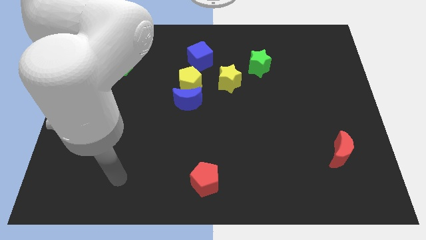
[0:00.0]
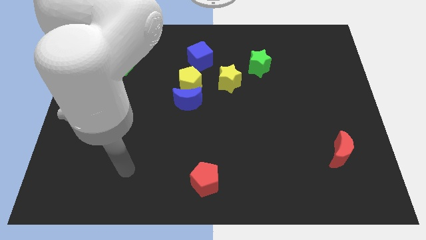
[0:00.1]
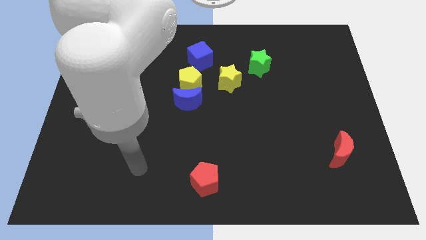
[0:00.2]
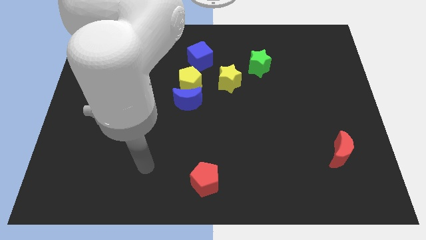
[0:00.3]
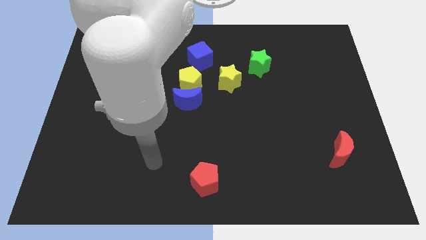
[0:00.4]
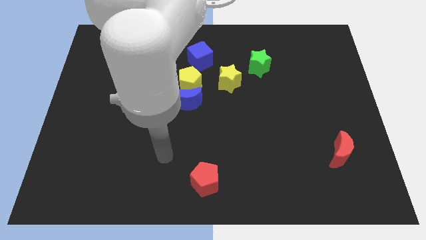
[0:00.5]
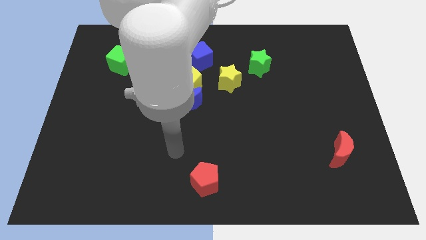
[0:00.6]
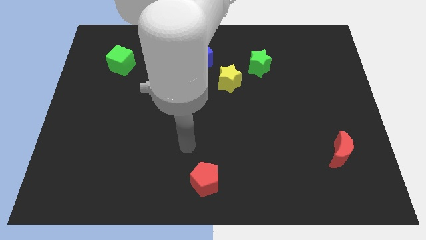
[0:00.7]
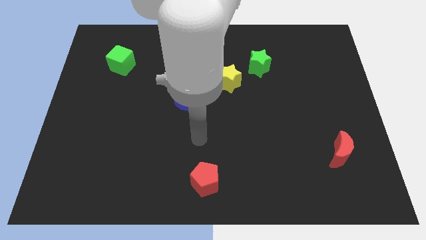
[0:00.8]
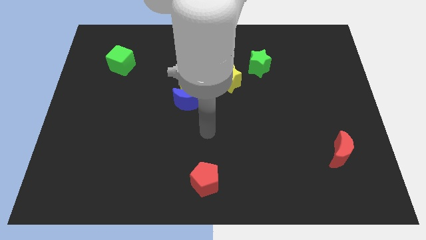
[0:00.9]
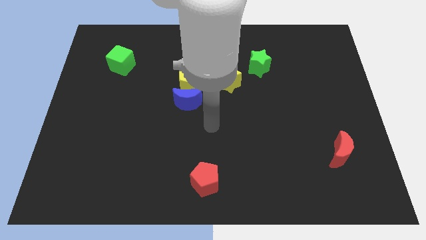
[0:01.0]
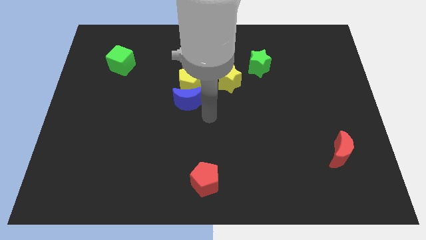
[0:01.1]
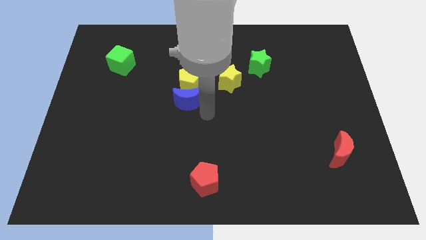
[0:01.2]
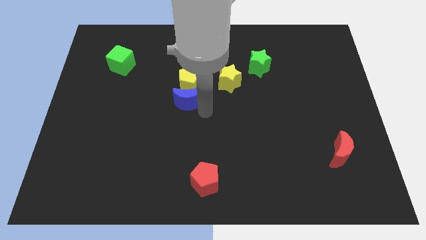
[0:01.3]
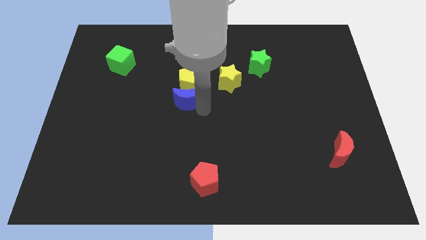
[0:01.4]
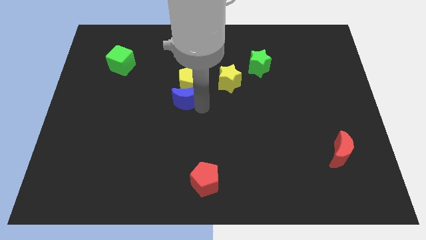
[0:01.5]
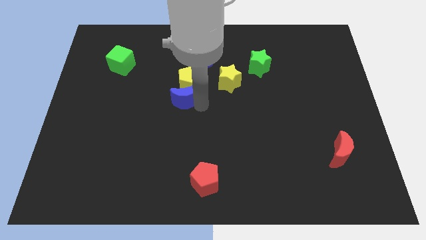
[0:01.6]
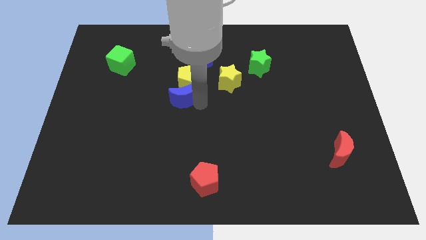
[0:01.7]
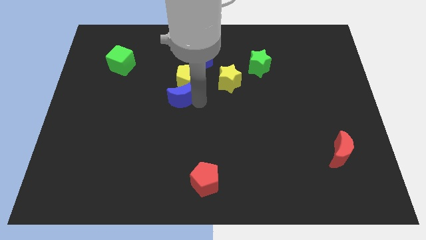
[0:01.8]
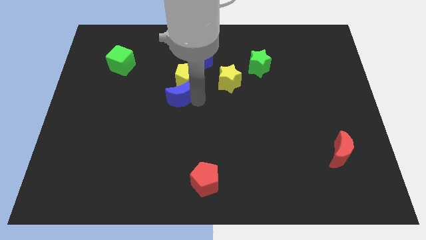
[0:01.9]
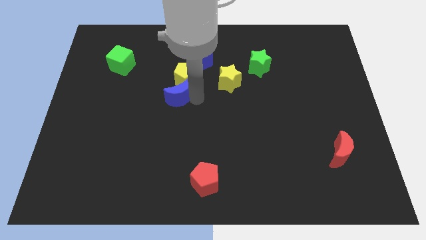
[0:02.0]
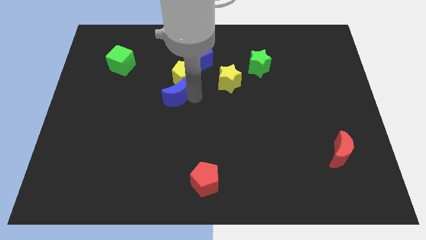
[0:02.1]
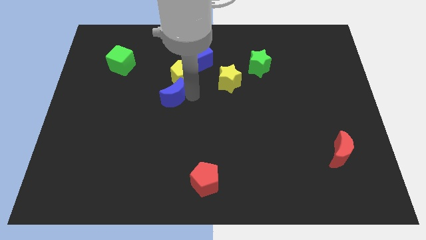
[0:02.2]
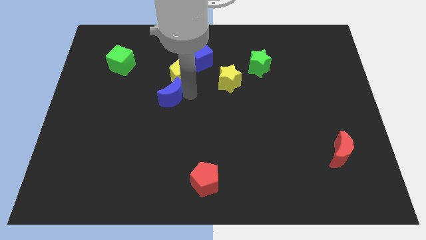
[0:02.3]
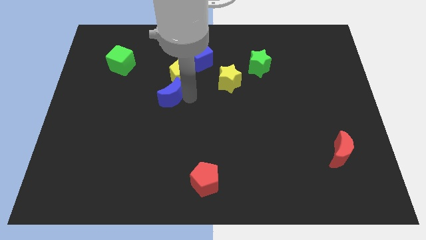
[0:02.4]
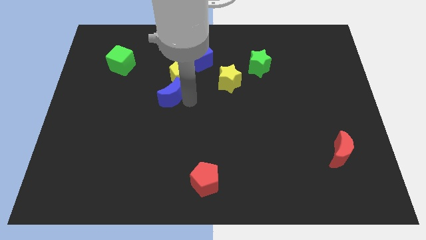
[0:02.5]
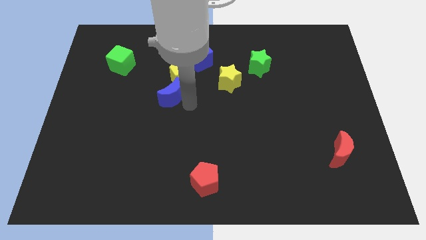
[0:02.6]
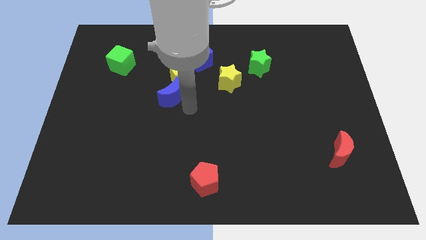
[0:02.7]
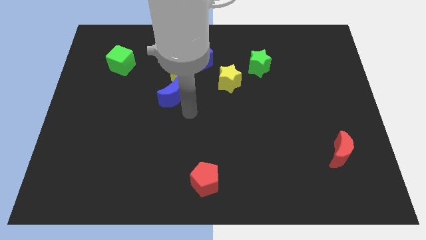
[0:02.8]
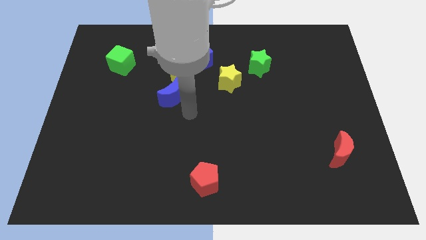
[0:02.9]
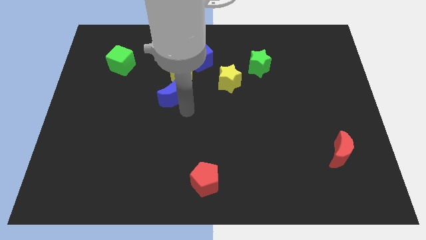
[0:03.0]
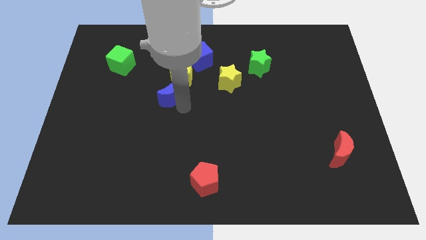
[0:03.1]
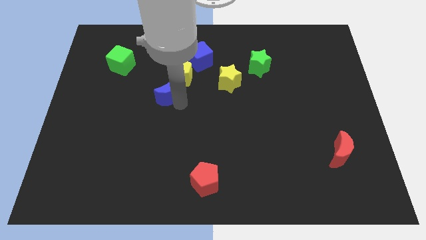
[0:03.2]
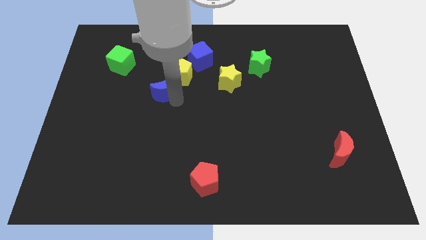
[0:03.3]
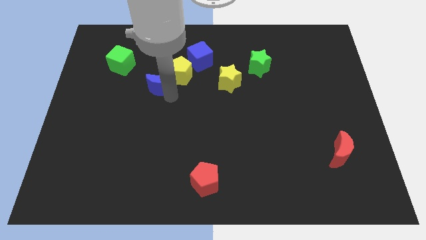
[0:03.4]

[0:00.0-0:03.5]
move the blue moon upwards and left a bit

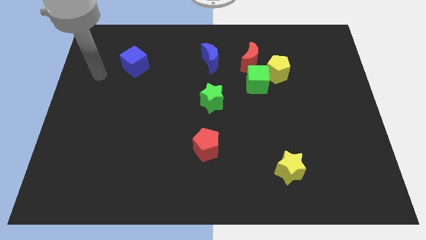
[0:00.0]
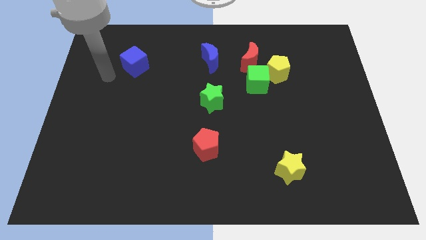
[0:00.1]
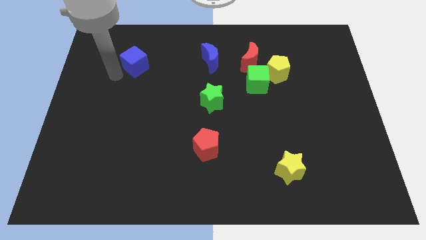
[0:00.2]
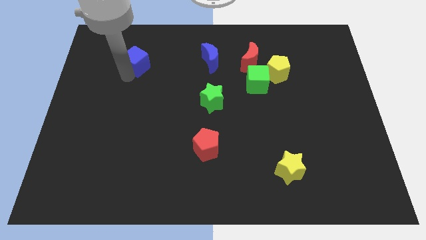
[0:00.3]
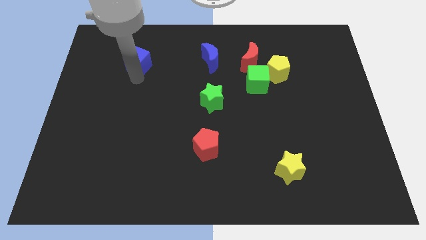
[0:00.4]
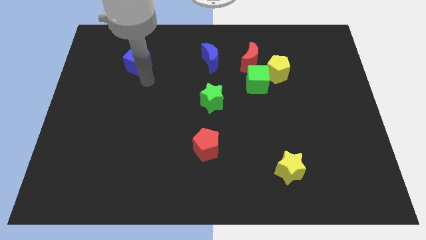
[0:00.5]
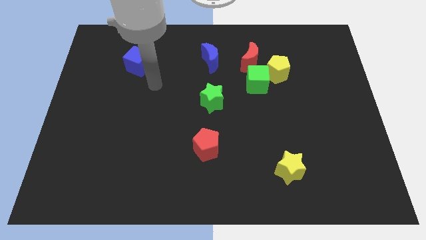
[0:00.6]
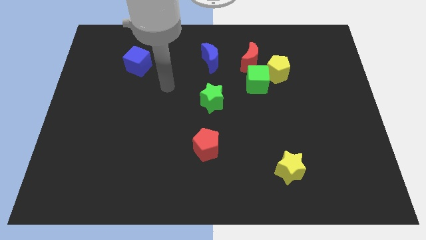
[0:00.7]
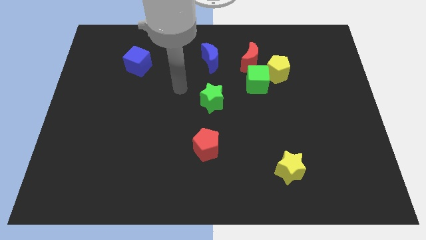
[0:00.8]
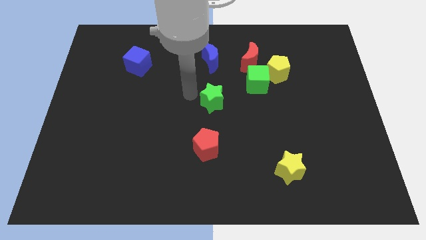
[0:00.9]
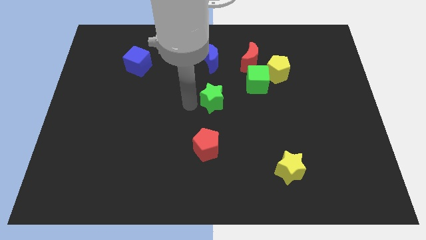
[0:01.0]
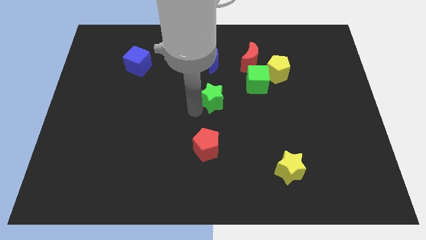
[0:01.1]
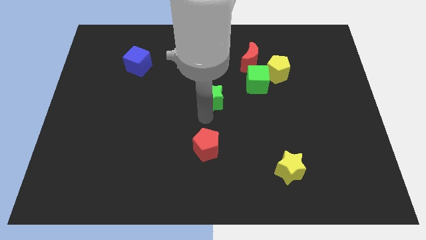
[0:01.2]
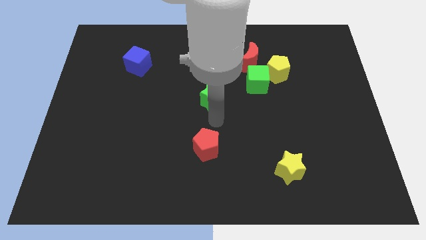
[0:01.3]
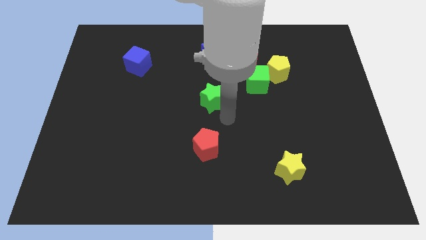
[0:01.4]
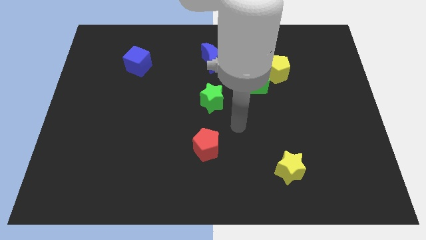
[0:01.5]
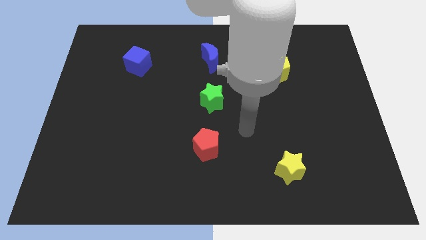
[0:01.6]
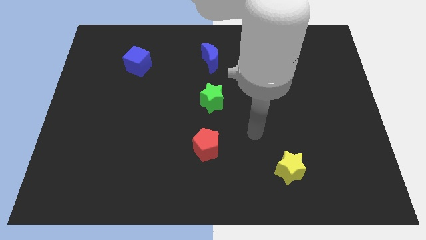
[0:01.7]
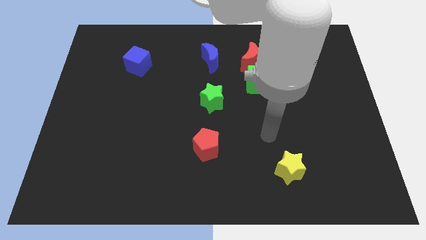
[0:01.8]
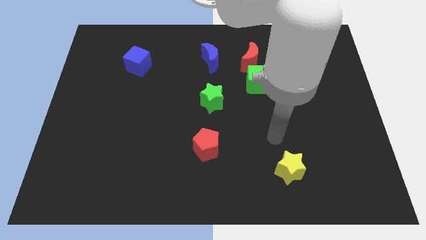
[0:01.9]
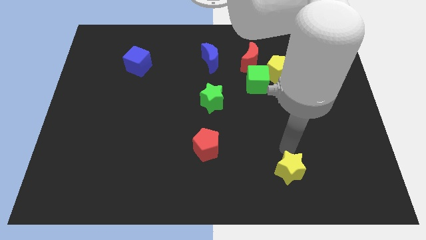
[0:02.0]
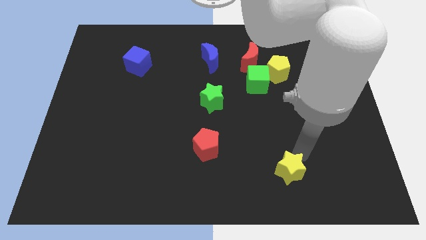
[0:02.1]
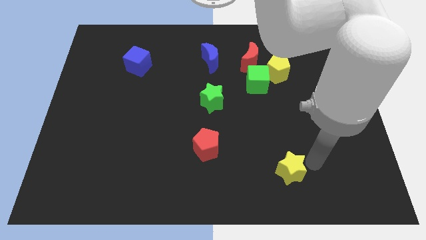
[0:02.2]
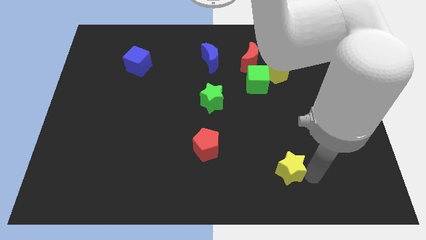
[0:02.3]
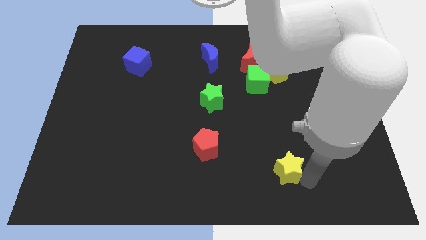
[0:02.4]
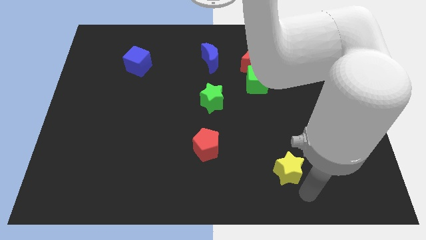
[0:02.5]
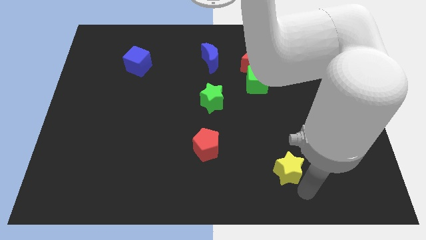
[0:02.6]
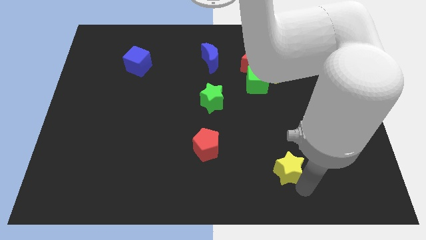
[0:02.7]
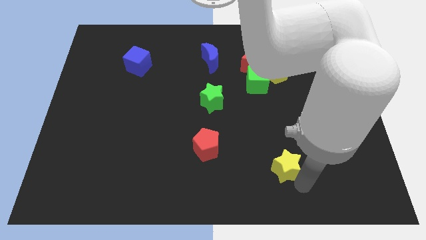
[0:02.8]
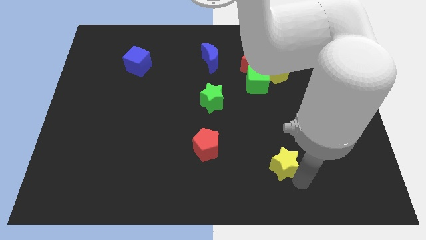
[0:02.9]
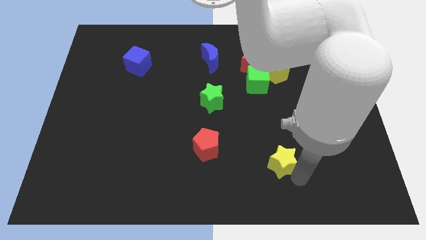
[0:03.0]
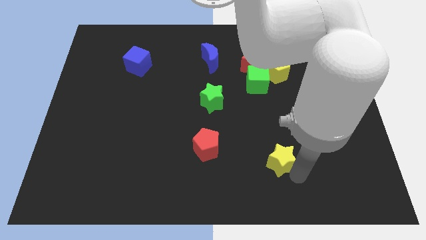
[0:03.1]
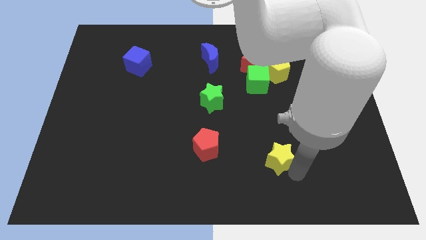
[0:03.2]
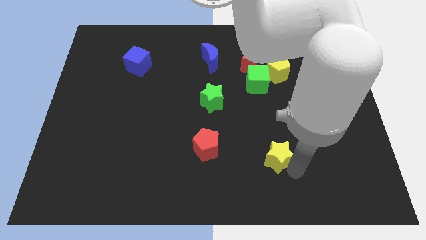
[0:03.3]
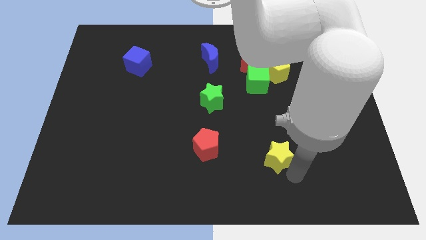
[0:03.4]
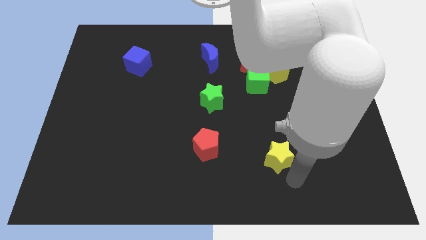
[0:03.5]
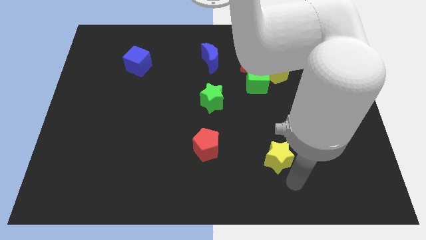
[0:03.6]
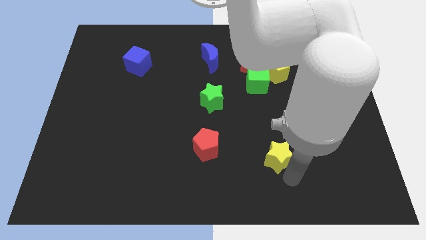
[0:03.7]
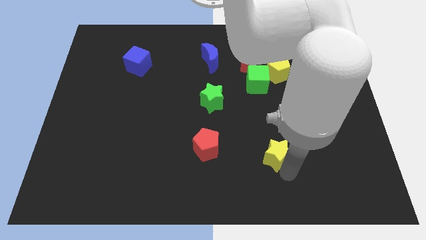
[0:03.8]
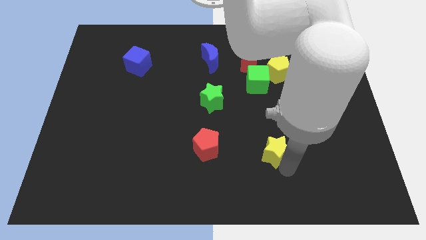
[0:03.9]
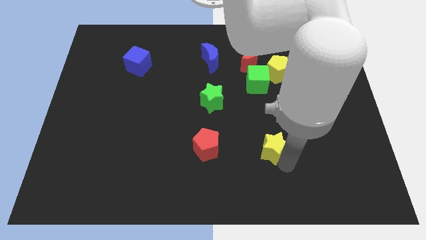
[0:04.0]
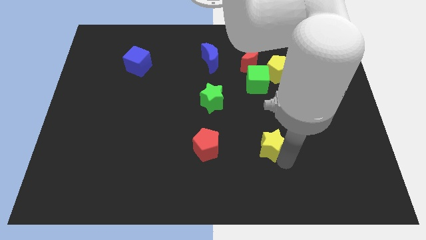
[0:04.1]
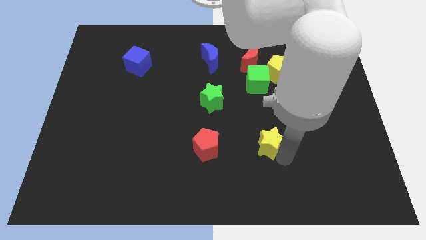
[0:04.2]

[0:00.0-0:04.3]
slightly push the yellow star up and to the left diagonally

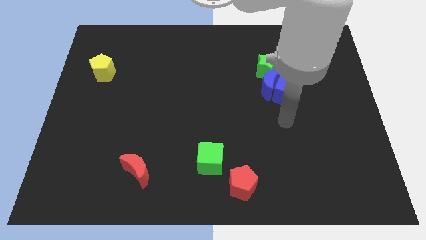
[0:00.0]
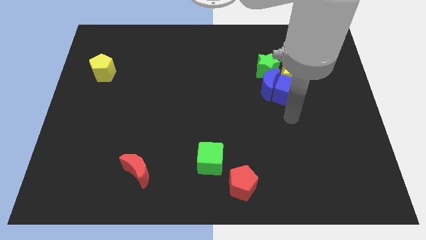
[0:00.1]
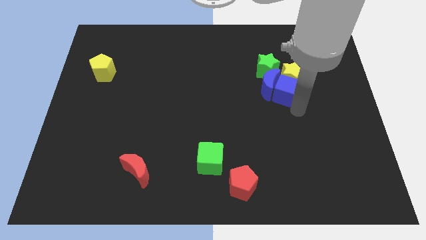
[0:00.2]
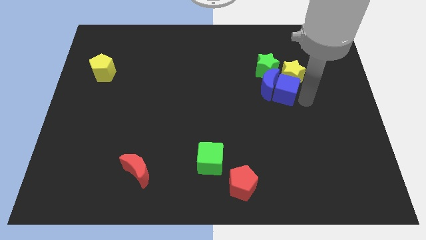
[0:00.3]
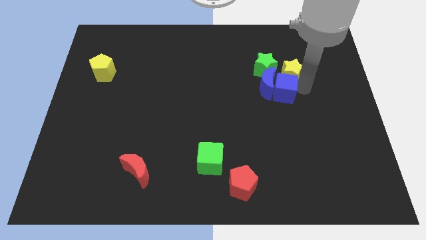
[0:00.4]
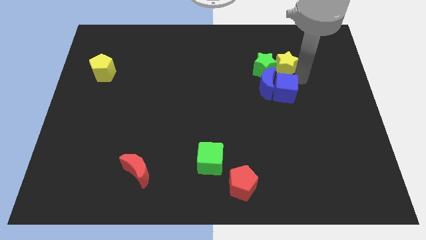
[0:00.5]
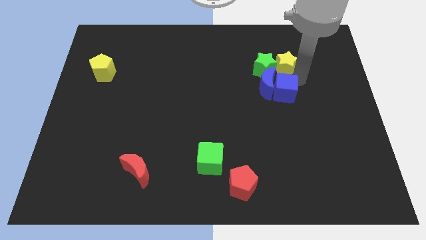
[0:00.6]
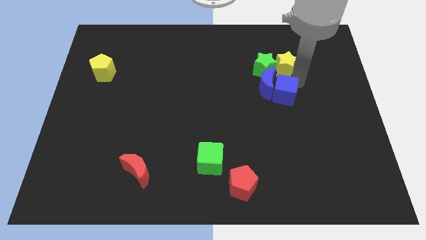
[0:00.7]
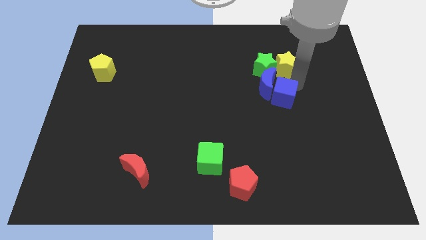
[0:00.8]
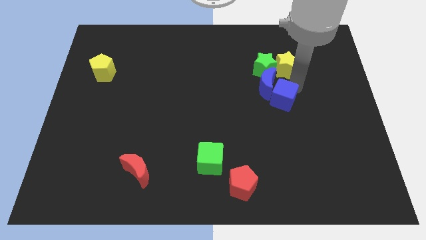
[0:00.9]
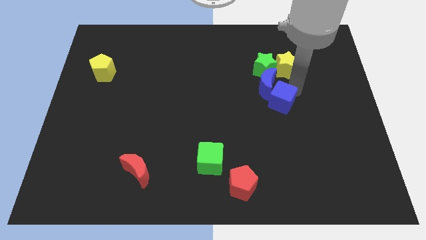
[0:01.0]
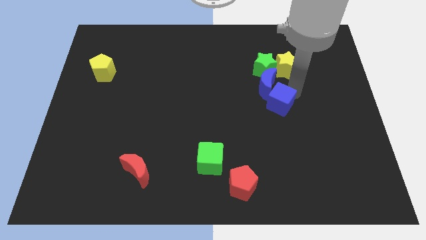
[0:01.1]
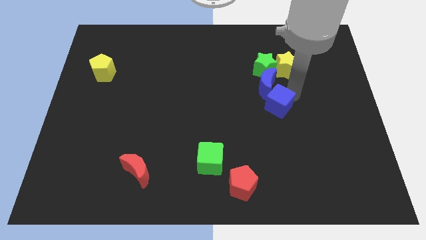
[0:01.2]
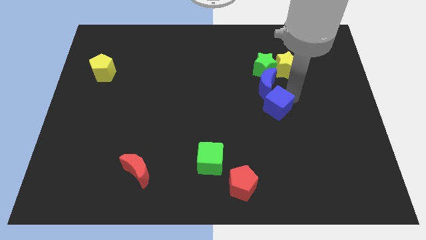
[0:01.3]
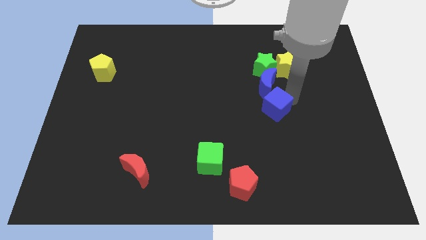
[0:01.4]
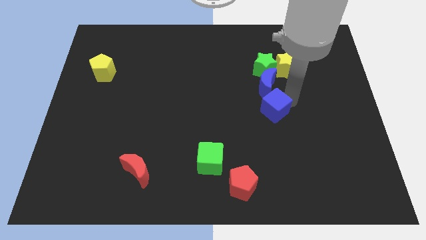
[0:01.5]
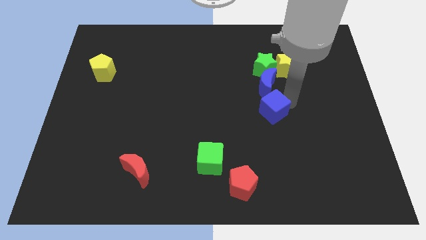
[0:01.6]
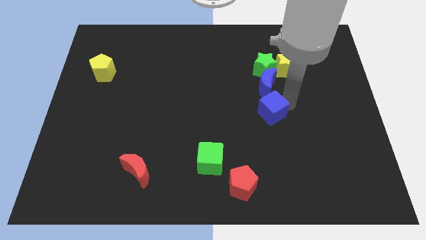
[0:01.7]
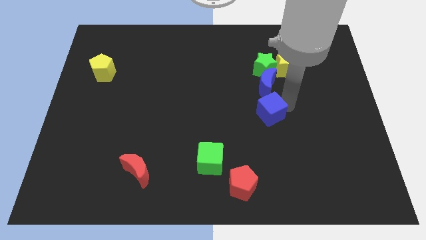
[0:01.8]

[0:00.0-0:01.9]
move the blue cube downwards and then to the left somewhat
